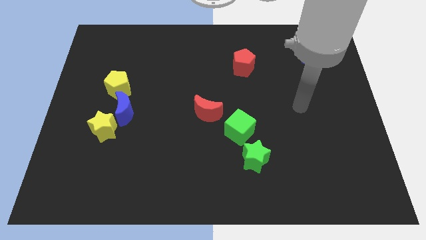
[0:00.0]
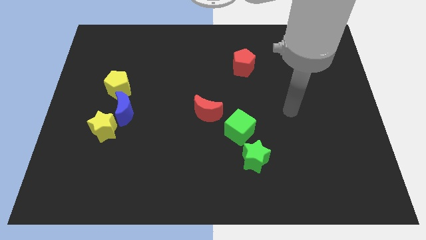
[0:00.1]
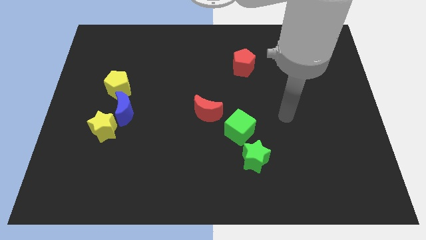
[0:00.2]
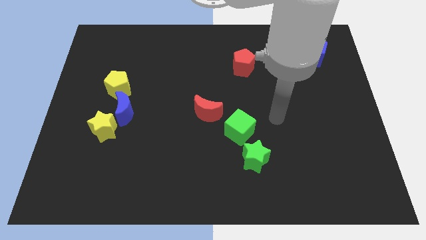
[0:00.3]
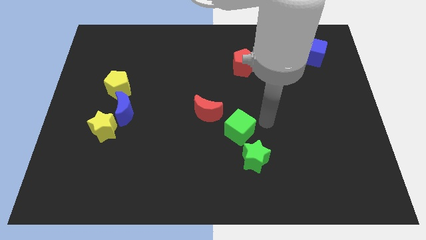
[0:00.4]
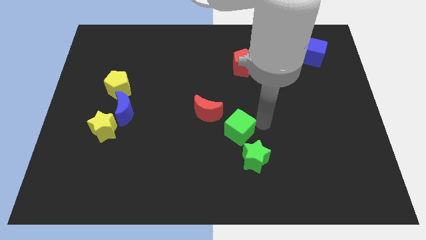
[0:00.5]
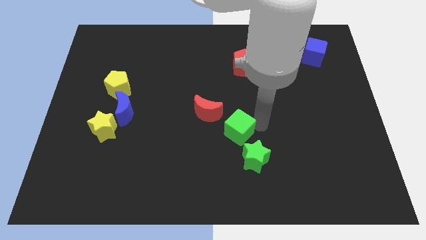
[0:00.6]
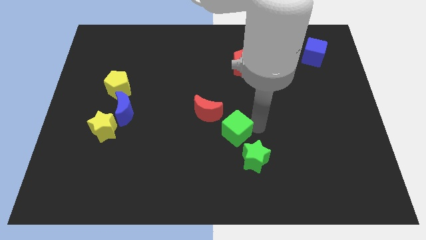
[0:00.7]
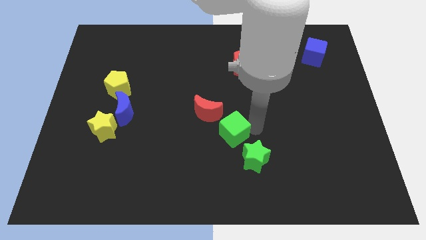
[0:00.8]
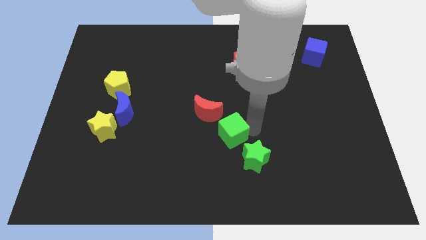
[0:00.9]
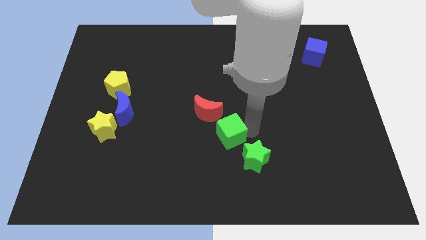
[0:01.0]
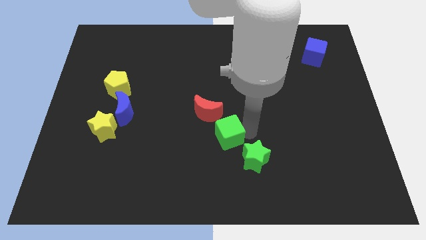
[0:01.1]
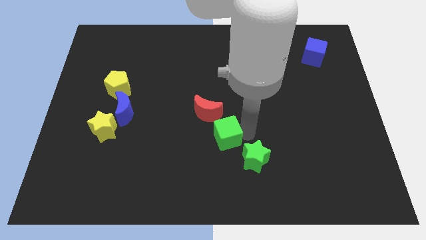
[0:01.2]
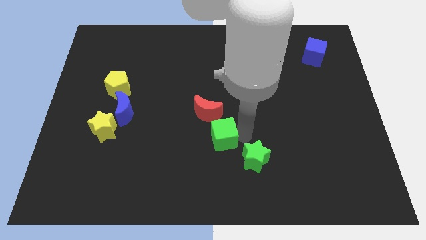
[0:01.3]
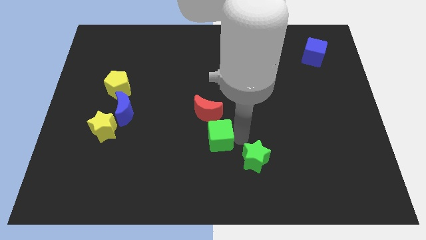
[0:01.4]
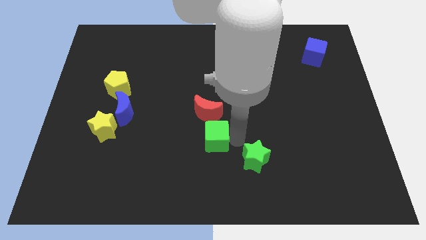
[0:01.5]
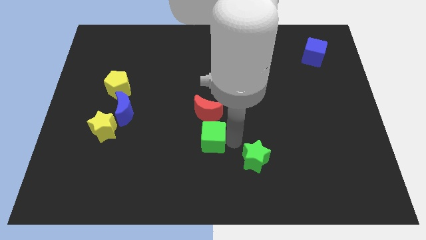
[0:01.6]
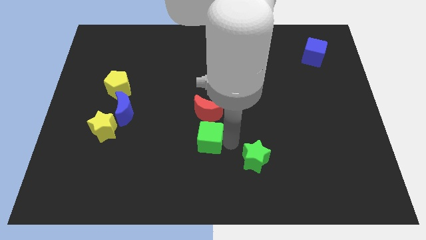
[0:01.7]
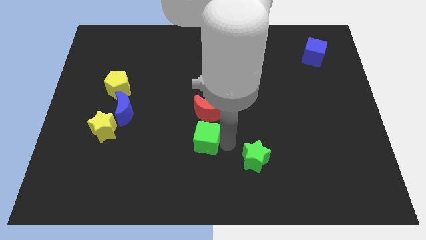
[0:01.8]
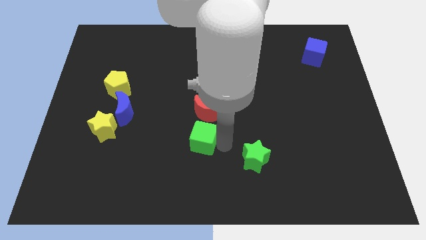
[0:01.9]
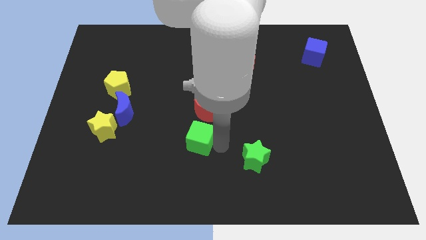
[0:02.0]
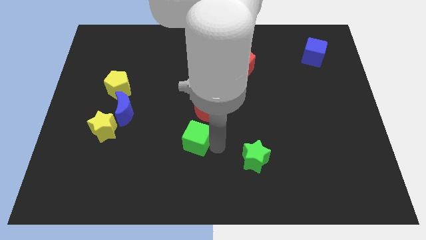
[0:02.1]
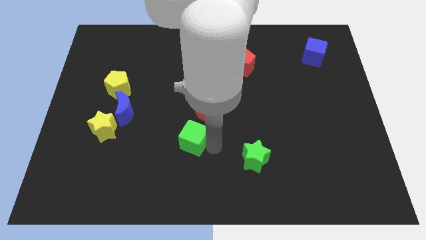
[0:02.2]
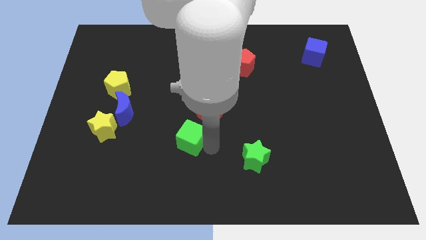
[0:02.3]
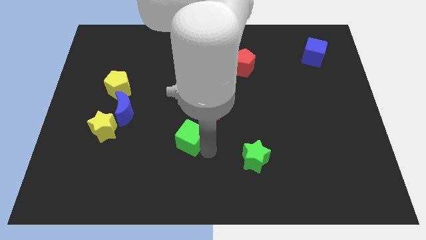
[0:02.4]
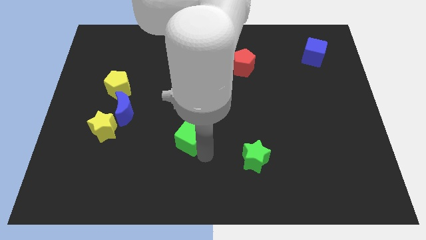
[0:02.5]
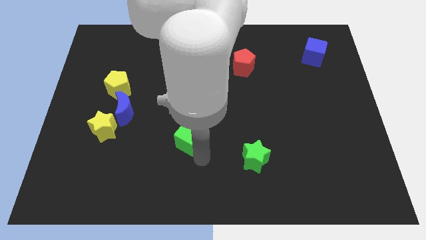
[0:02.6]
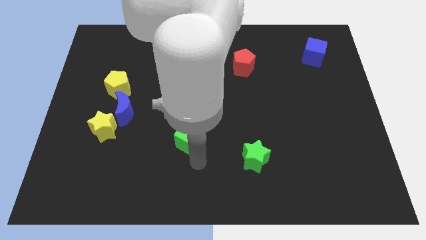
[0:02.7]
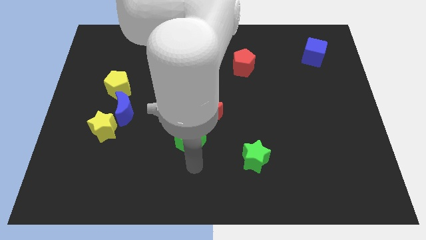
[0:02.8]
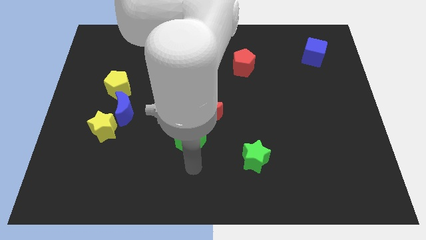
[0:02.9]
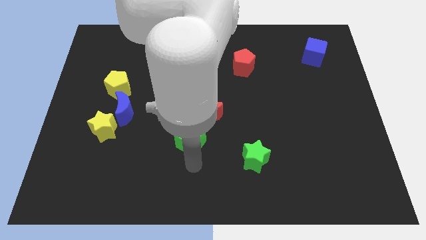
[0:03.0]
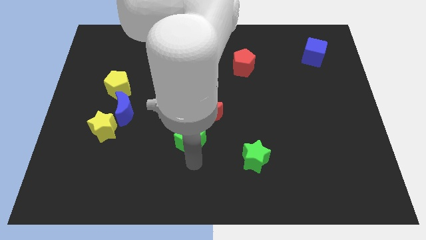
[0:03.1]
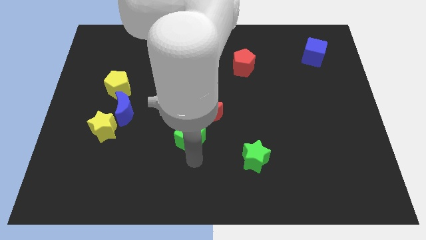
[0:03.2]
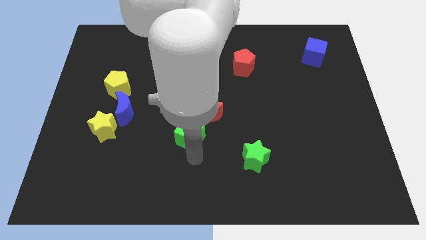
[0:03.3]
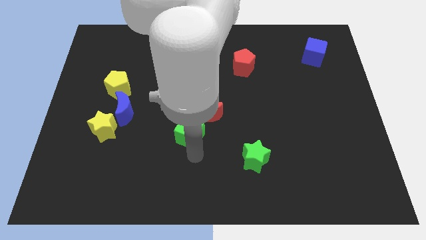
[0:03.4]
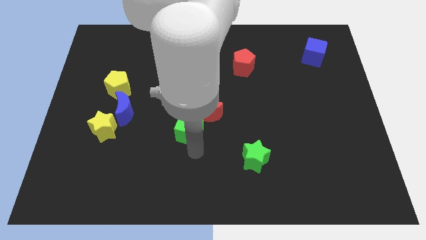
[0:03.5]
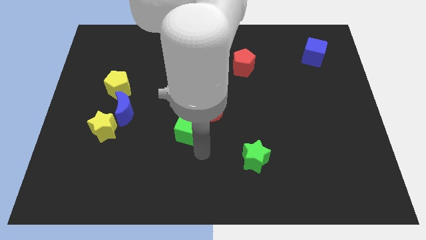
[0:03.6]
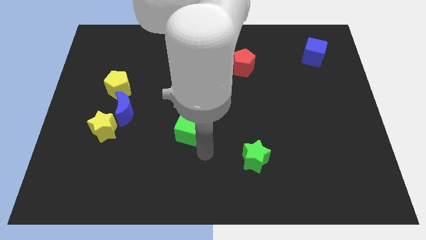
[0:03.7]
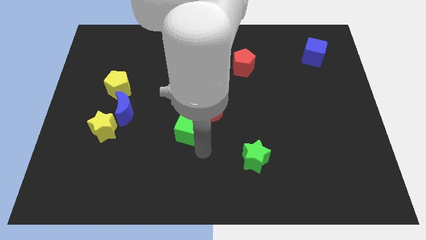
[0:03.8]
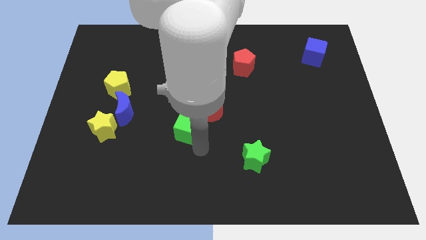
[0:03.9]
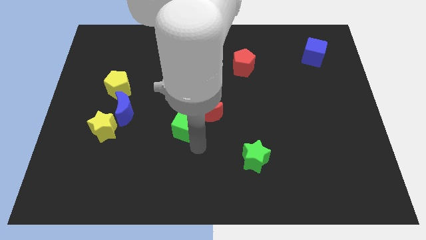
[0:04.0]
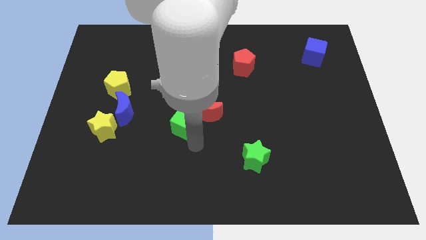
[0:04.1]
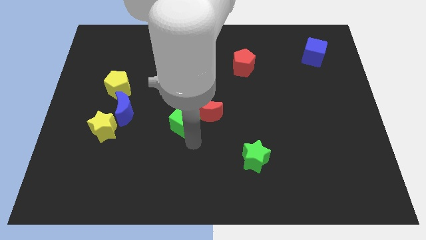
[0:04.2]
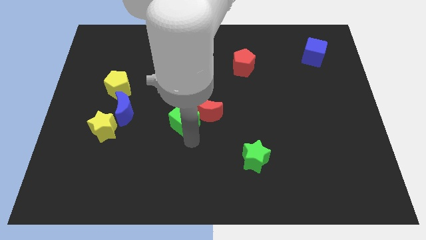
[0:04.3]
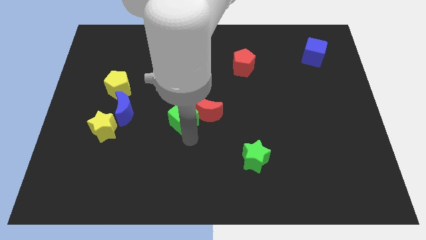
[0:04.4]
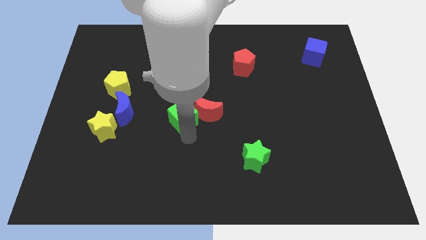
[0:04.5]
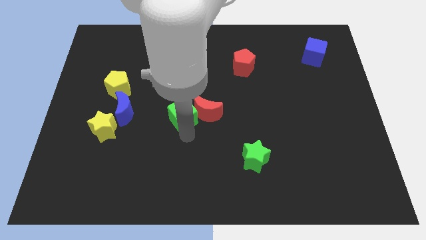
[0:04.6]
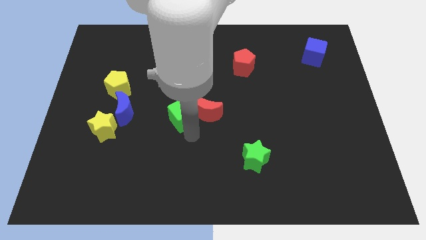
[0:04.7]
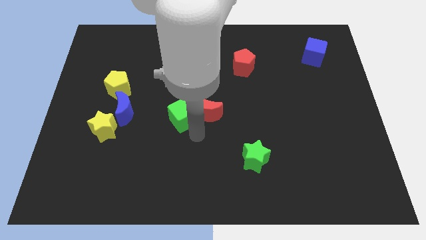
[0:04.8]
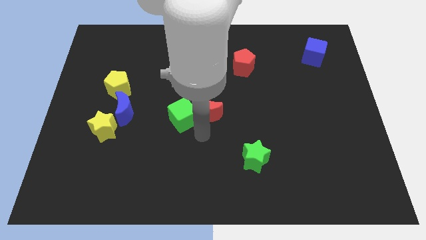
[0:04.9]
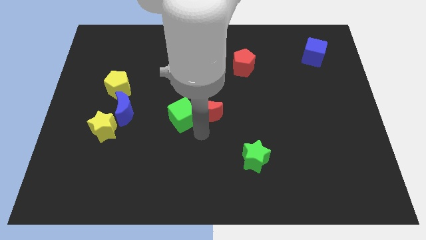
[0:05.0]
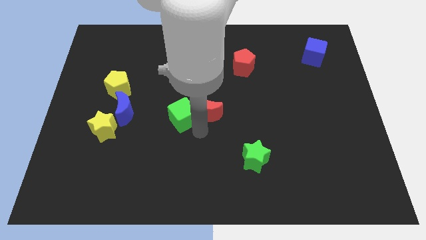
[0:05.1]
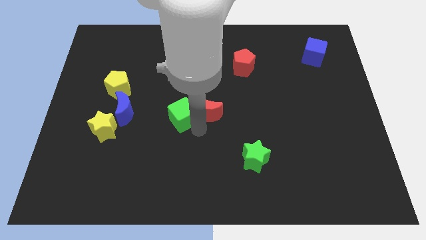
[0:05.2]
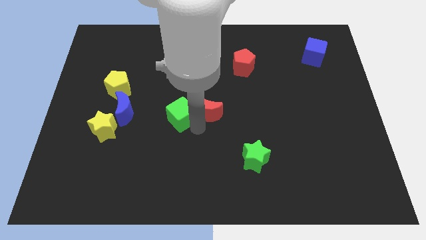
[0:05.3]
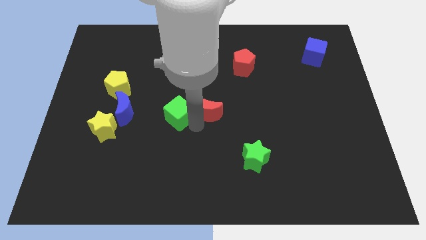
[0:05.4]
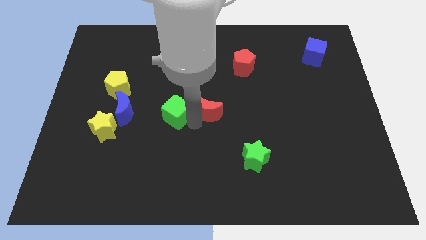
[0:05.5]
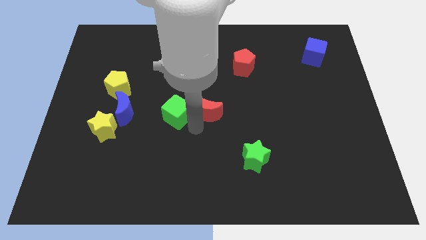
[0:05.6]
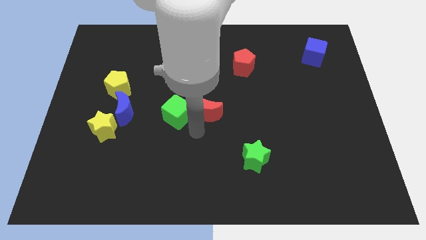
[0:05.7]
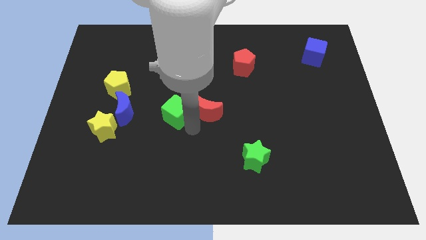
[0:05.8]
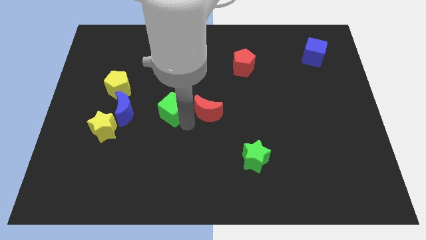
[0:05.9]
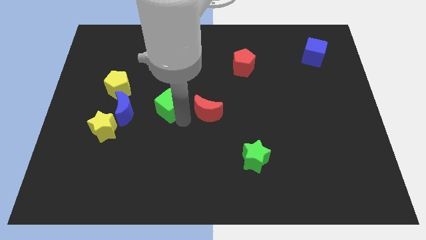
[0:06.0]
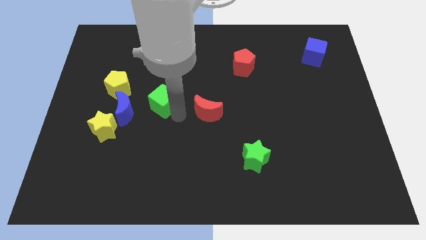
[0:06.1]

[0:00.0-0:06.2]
push the green cube diagonally up and to the right of the blue moon

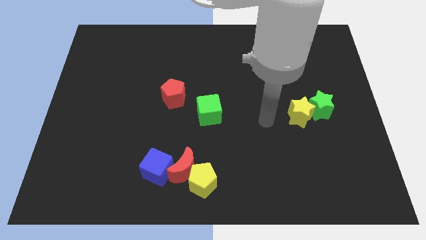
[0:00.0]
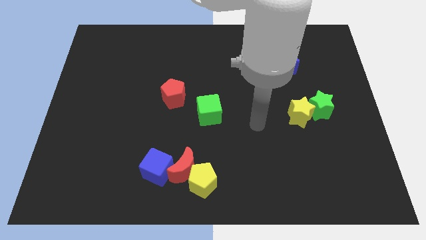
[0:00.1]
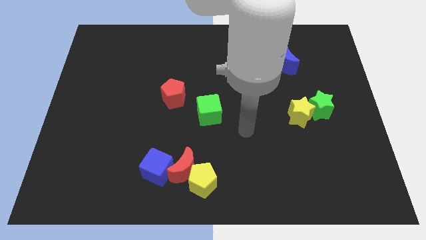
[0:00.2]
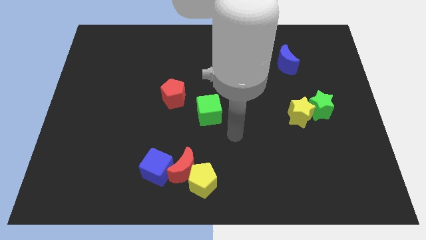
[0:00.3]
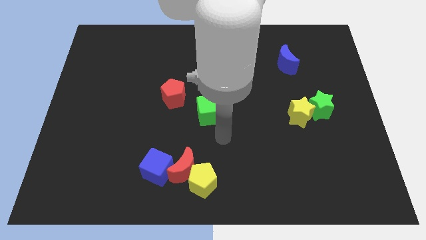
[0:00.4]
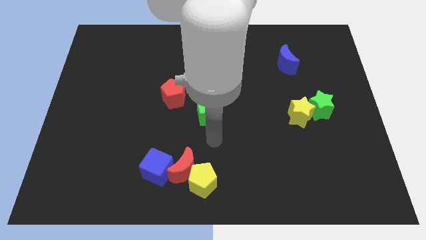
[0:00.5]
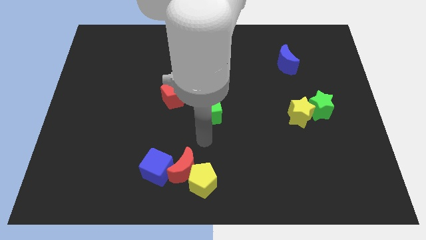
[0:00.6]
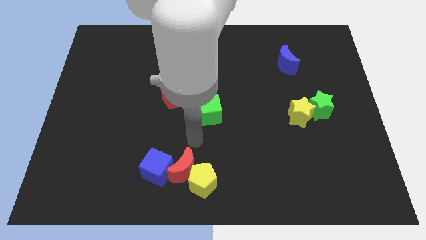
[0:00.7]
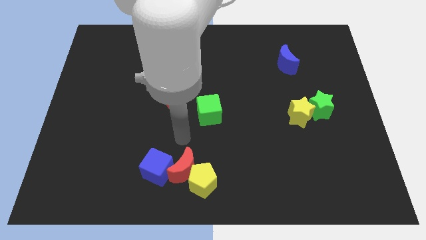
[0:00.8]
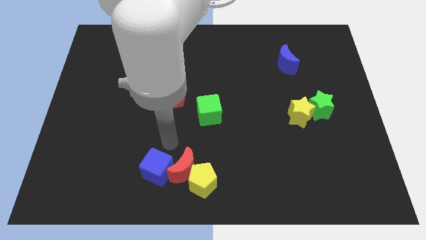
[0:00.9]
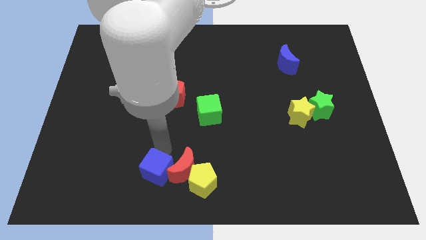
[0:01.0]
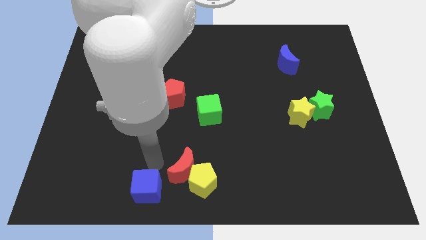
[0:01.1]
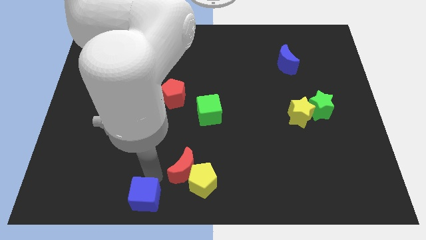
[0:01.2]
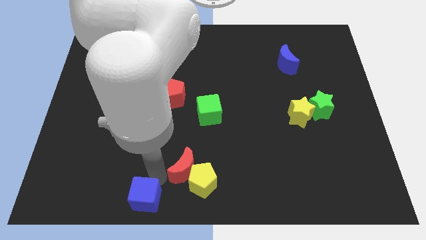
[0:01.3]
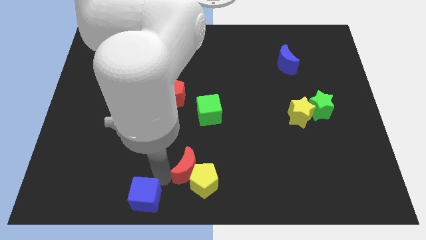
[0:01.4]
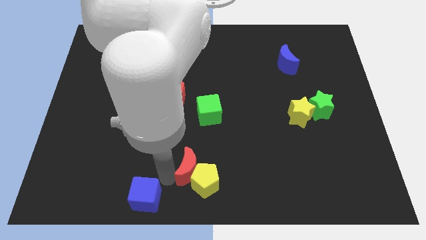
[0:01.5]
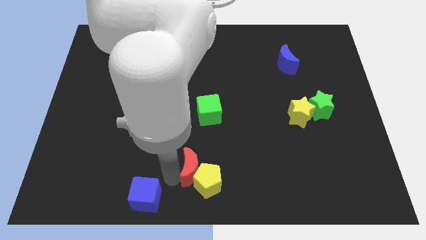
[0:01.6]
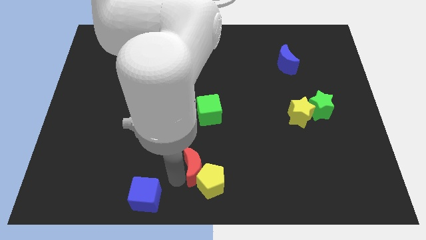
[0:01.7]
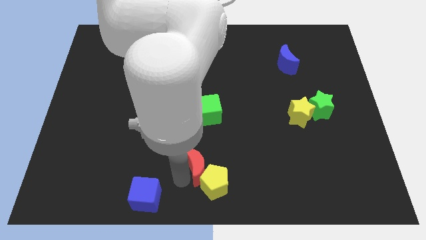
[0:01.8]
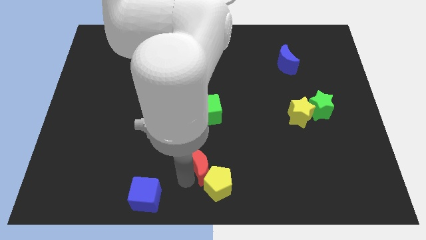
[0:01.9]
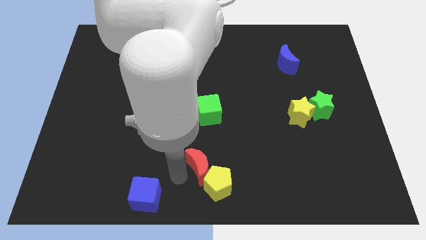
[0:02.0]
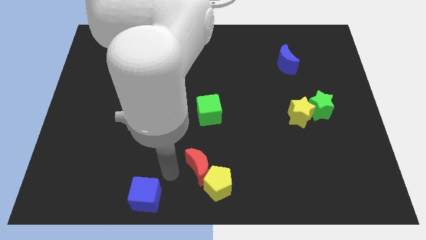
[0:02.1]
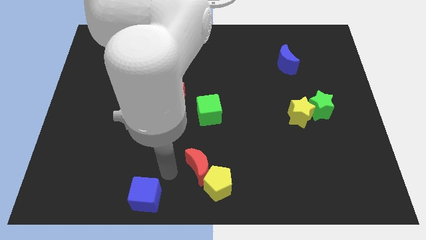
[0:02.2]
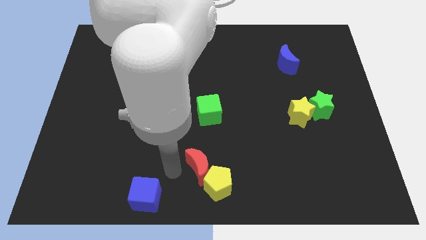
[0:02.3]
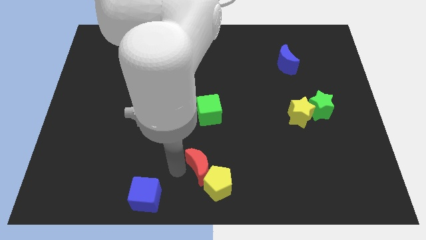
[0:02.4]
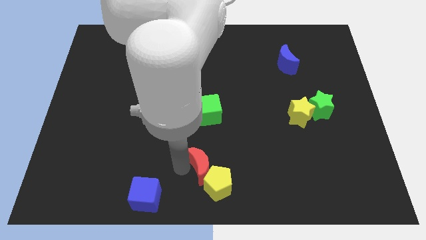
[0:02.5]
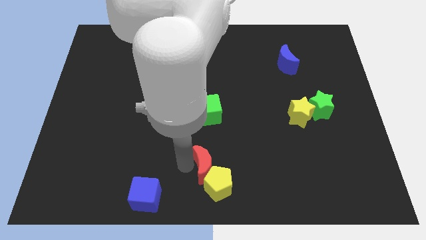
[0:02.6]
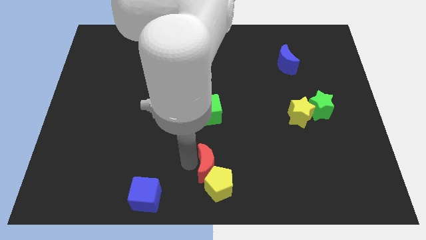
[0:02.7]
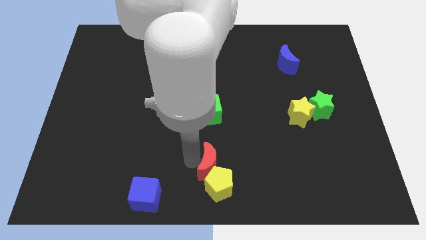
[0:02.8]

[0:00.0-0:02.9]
push the red moon diagonally up and to the right of the yellow pentagon
